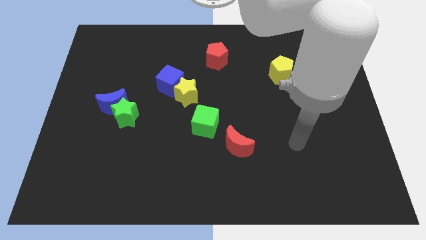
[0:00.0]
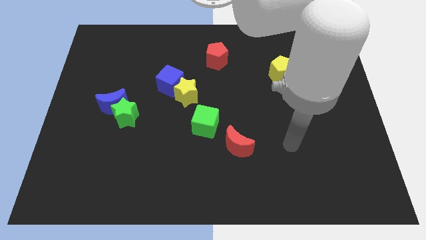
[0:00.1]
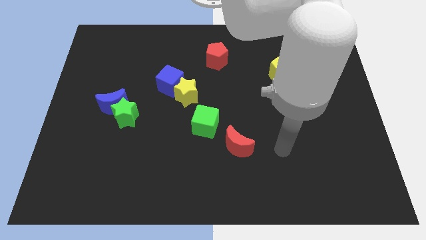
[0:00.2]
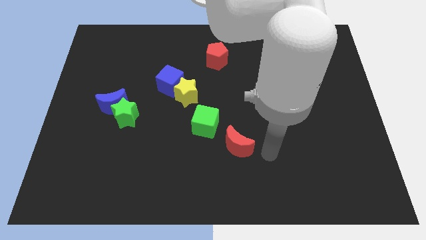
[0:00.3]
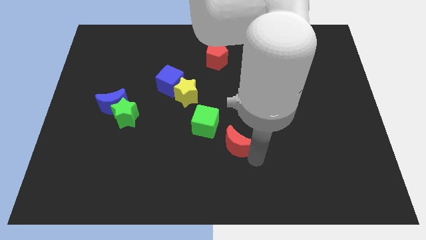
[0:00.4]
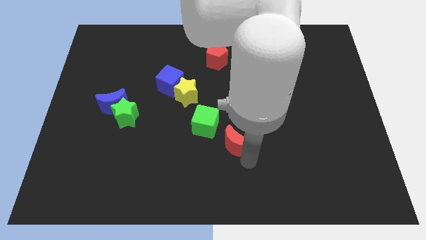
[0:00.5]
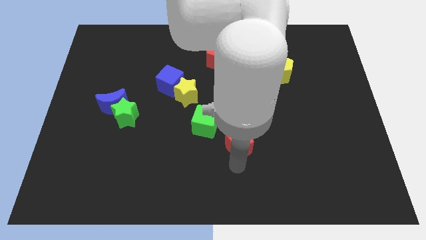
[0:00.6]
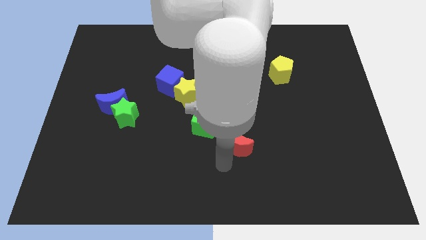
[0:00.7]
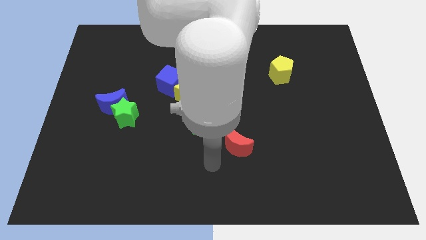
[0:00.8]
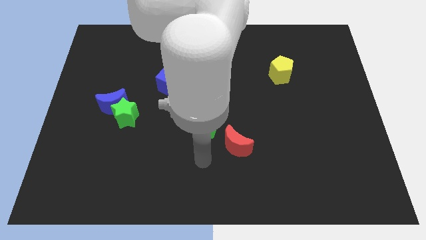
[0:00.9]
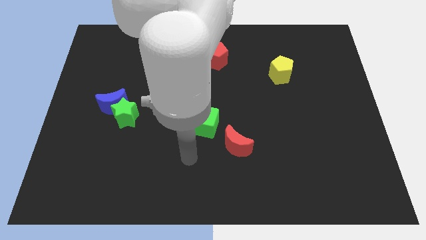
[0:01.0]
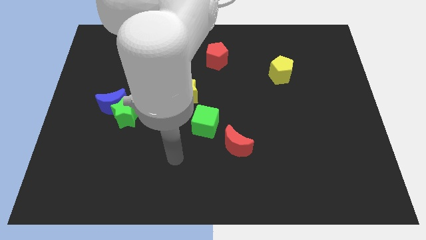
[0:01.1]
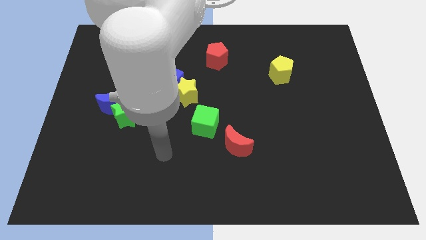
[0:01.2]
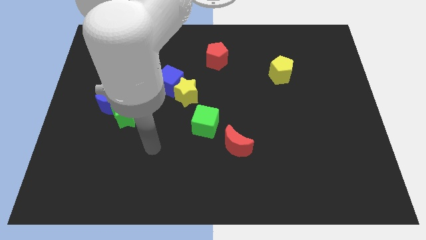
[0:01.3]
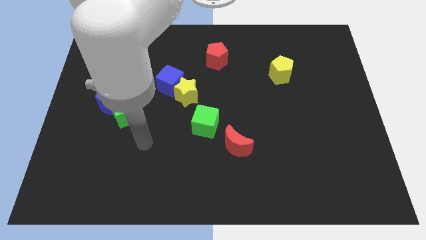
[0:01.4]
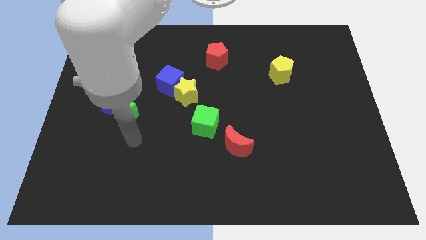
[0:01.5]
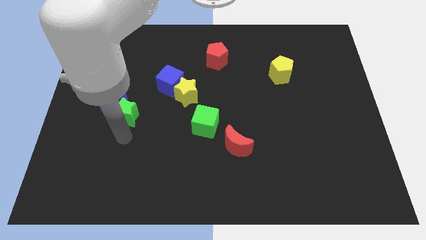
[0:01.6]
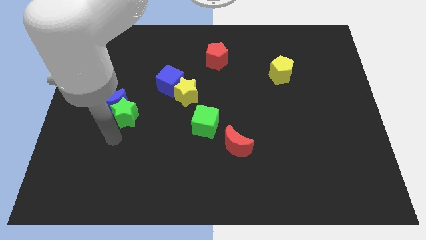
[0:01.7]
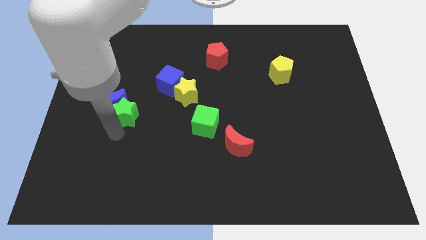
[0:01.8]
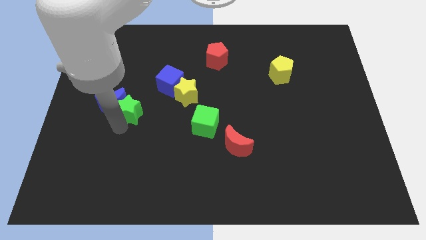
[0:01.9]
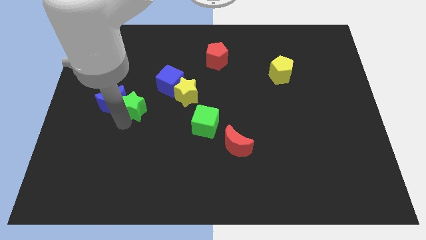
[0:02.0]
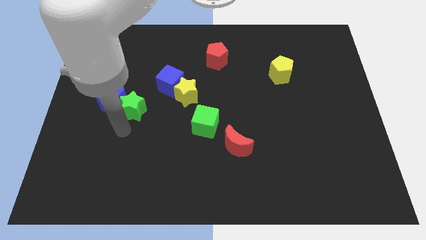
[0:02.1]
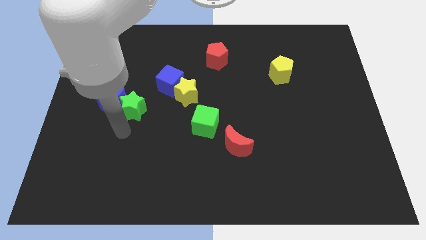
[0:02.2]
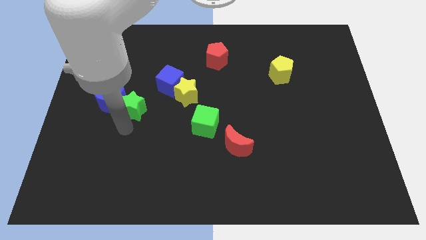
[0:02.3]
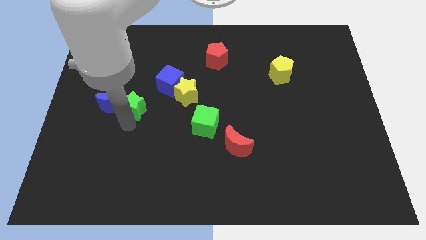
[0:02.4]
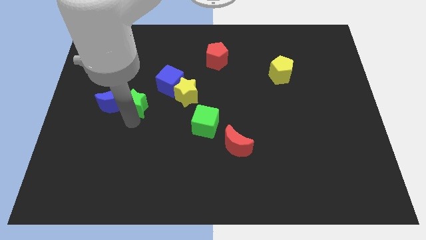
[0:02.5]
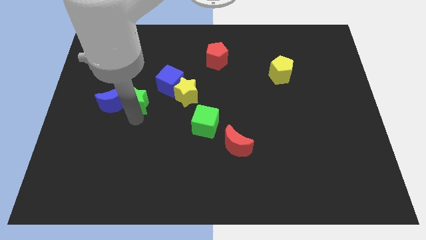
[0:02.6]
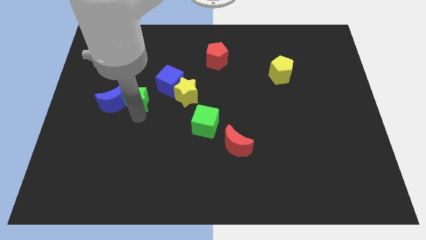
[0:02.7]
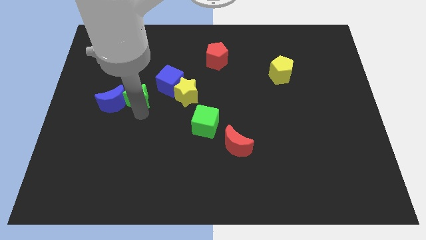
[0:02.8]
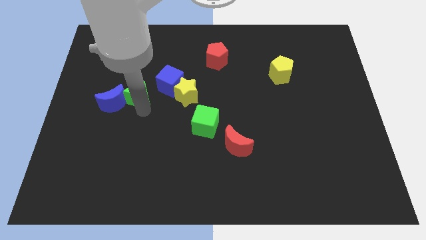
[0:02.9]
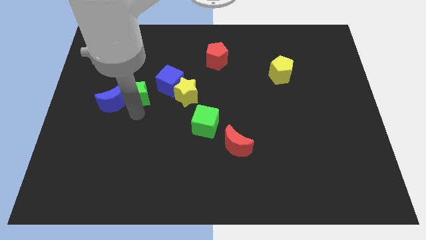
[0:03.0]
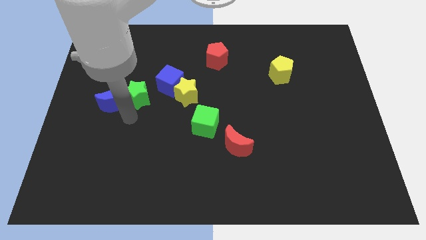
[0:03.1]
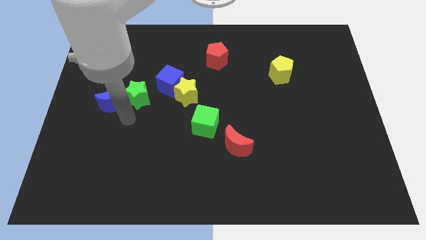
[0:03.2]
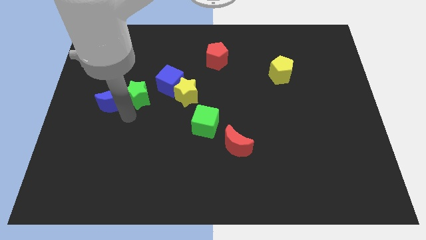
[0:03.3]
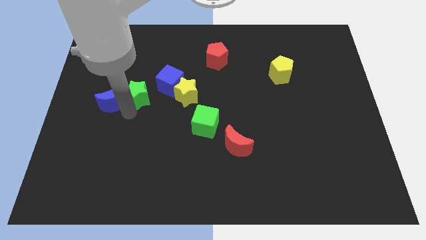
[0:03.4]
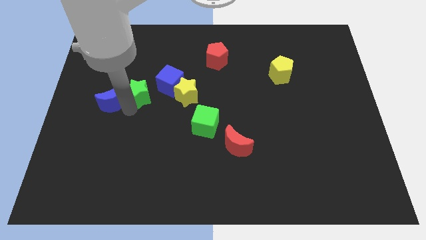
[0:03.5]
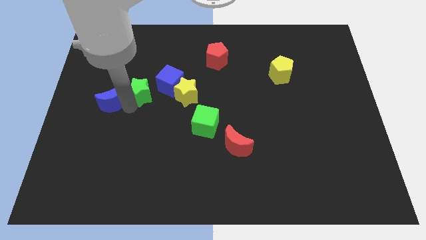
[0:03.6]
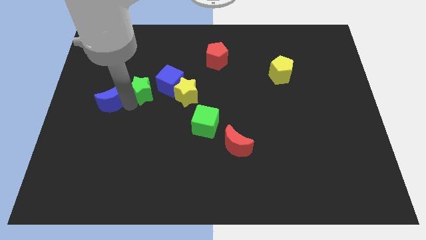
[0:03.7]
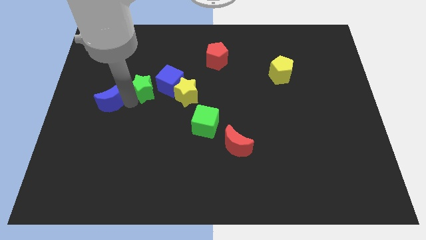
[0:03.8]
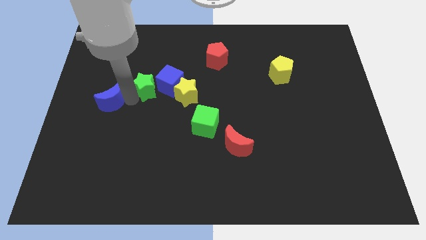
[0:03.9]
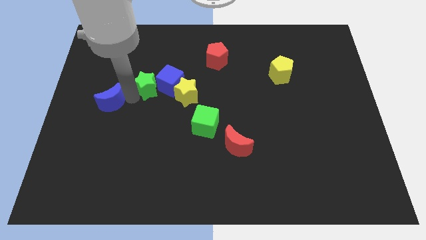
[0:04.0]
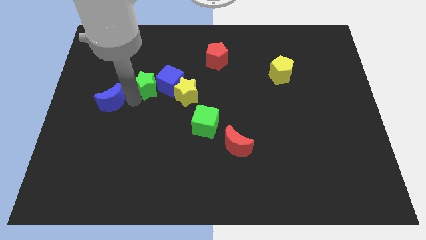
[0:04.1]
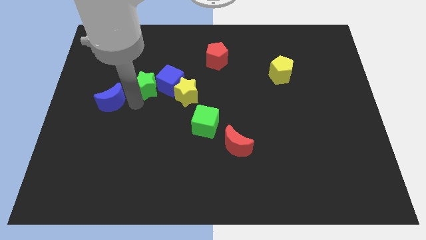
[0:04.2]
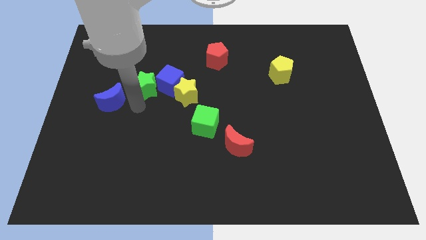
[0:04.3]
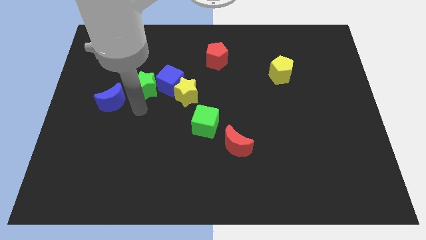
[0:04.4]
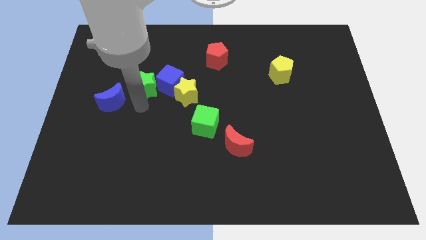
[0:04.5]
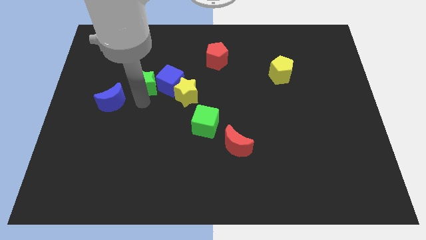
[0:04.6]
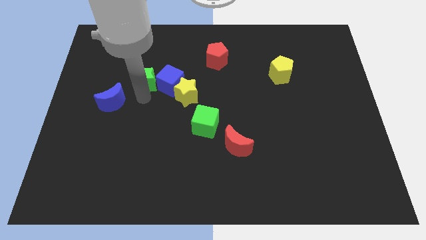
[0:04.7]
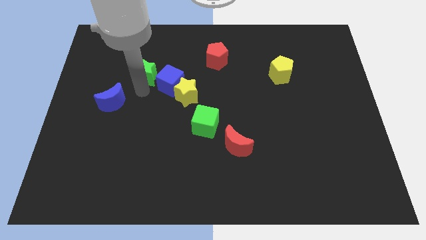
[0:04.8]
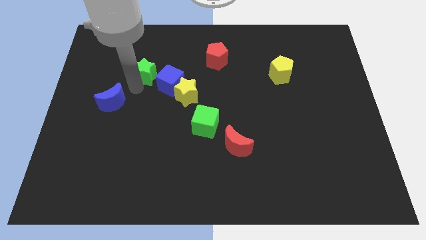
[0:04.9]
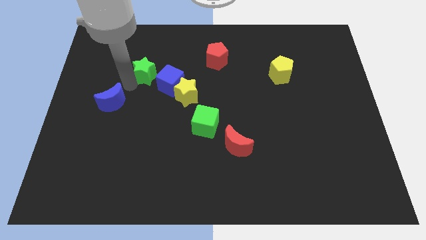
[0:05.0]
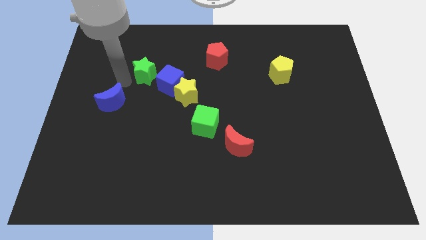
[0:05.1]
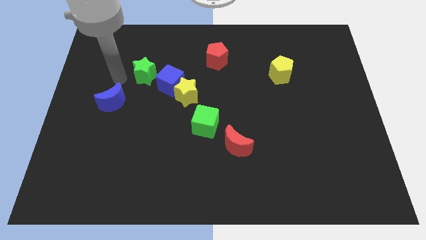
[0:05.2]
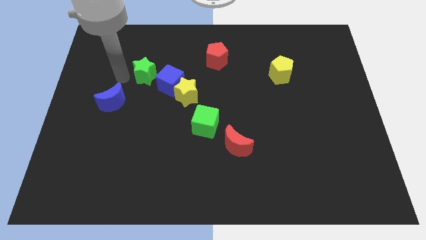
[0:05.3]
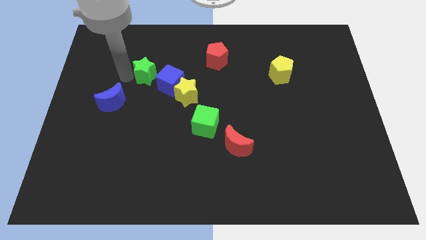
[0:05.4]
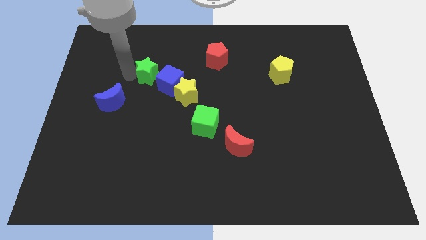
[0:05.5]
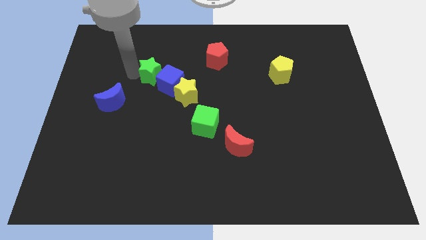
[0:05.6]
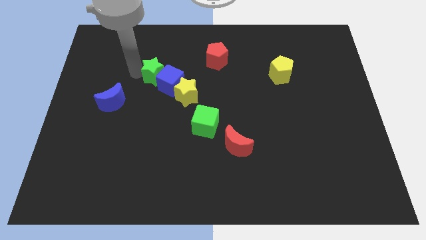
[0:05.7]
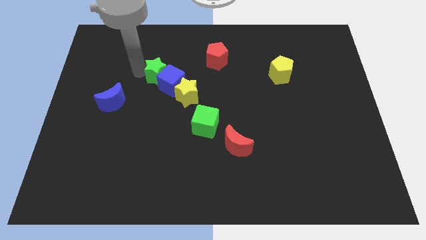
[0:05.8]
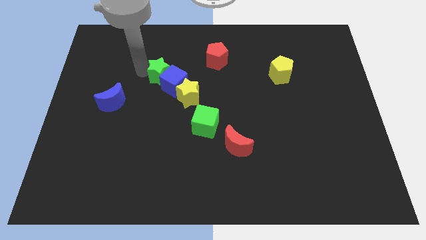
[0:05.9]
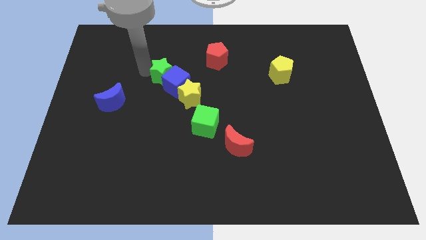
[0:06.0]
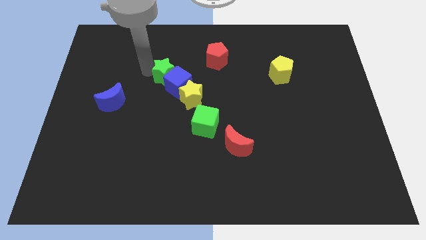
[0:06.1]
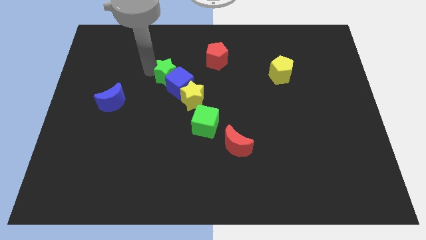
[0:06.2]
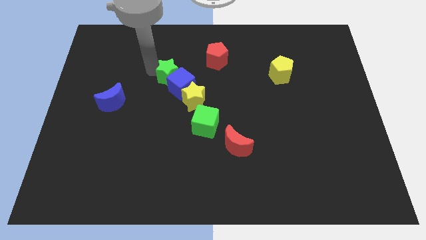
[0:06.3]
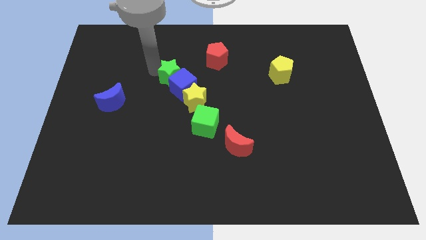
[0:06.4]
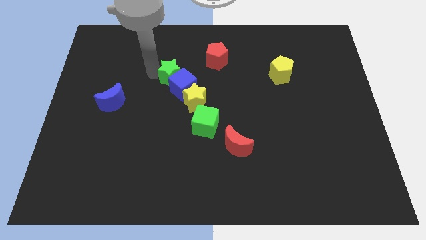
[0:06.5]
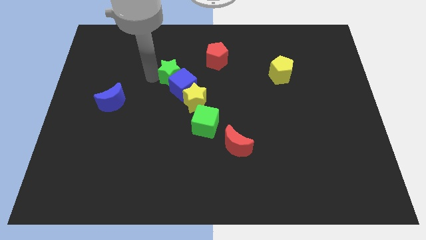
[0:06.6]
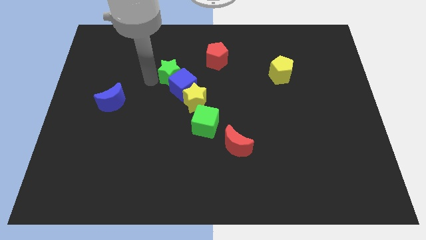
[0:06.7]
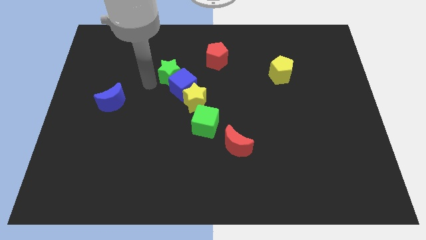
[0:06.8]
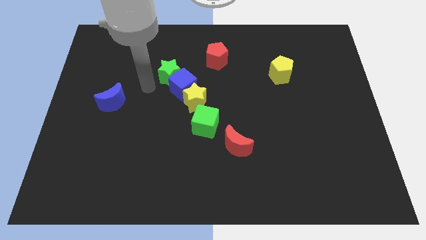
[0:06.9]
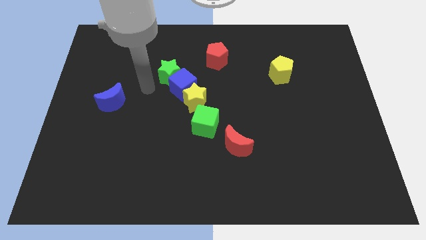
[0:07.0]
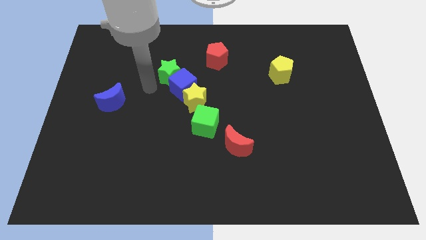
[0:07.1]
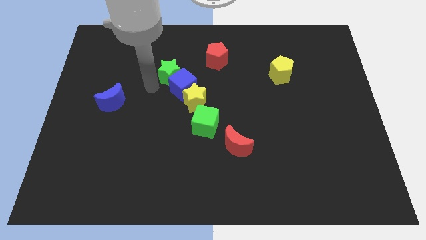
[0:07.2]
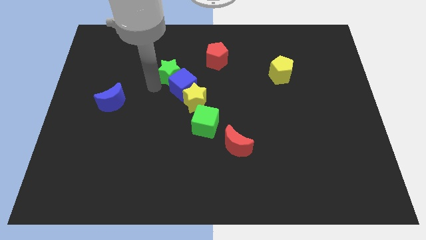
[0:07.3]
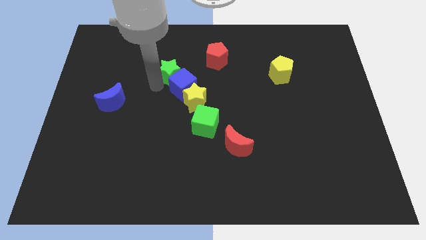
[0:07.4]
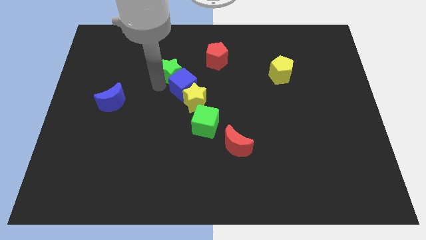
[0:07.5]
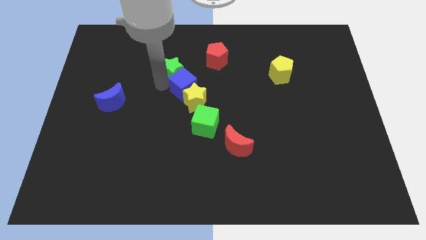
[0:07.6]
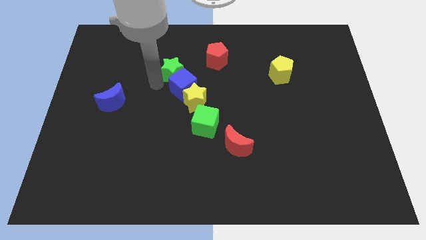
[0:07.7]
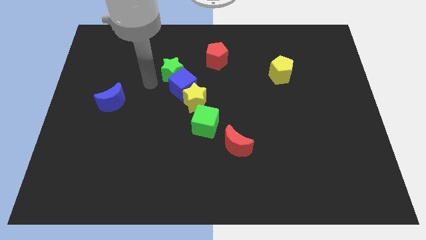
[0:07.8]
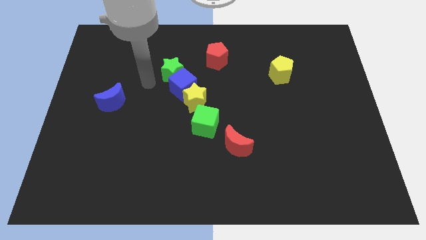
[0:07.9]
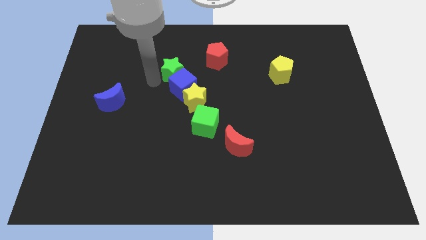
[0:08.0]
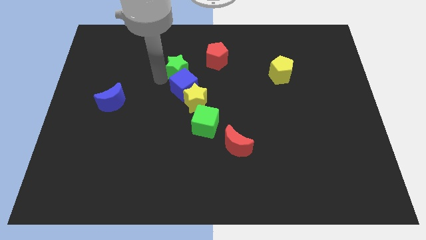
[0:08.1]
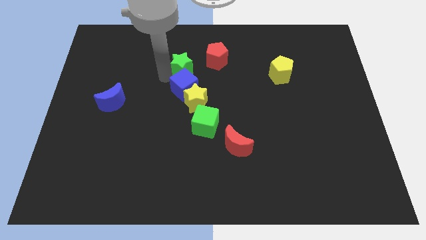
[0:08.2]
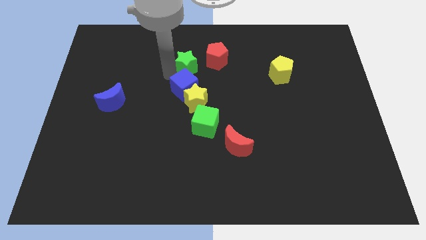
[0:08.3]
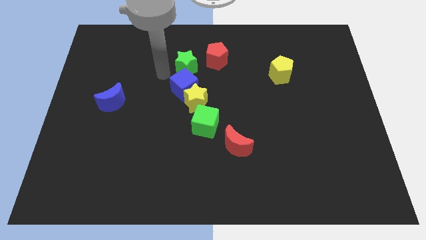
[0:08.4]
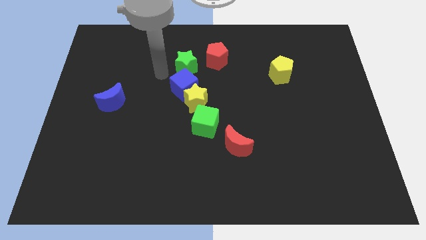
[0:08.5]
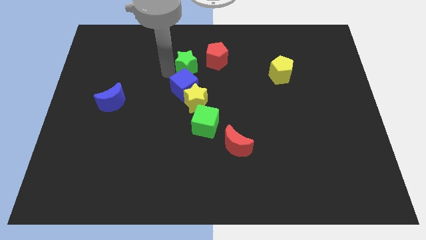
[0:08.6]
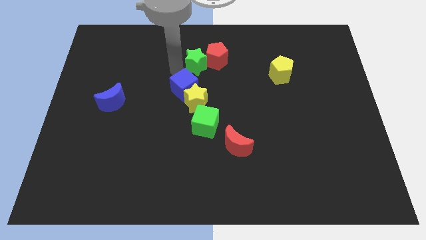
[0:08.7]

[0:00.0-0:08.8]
push the green star towards the red pentagon
